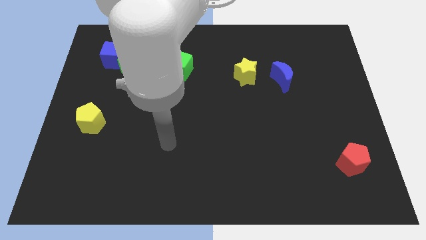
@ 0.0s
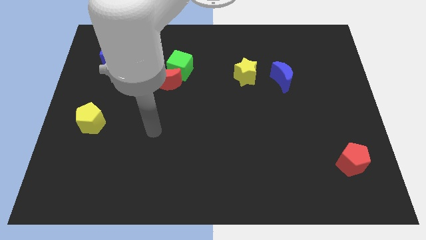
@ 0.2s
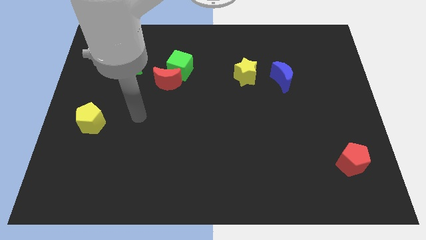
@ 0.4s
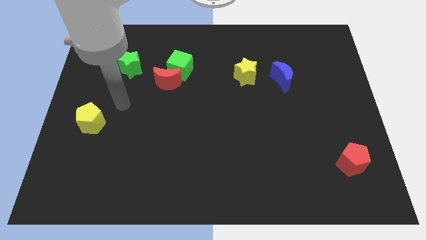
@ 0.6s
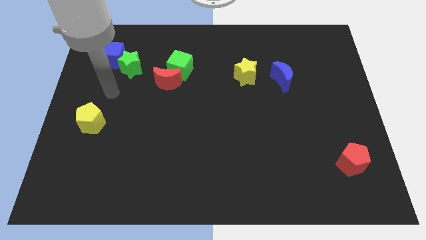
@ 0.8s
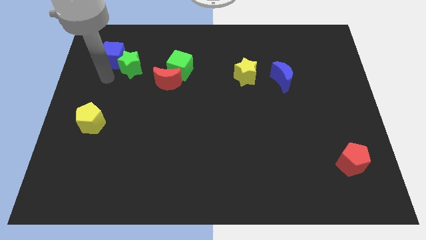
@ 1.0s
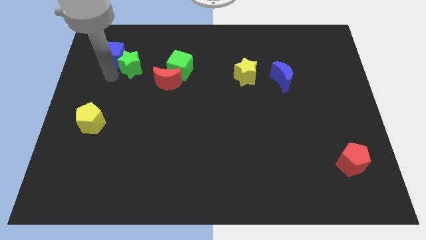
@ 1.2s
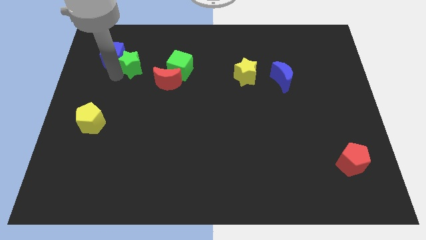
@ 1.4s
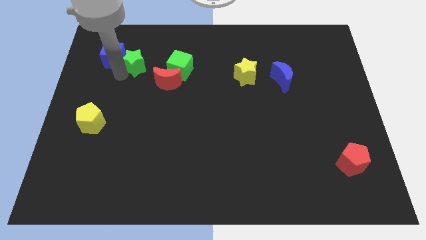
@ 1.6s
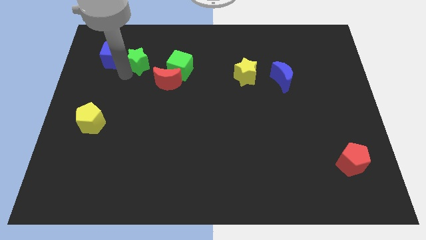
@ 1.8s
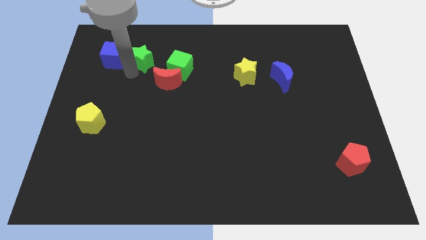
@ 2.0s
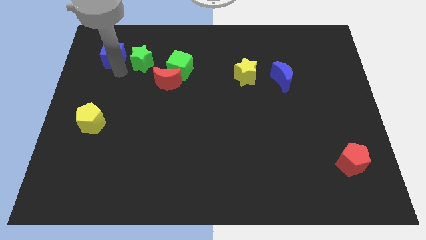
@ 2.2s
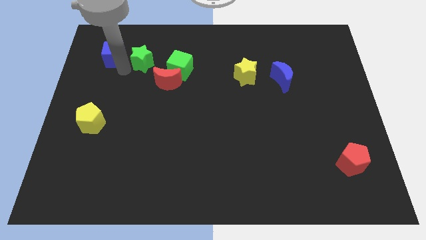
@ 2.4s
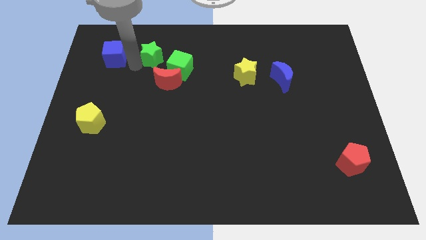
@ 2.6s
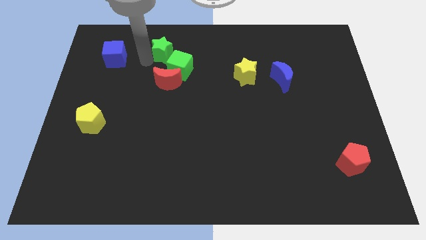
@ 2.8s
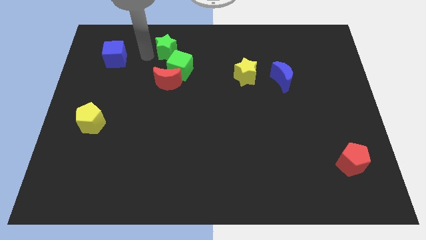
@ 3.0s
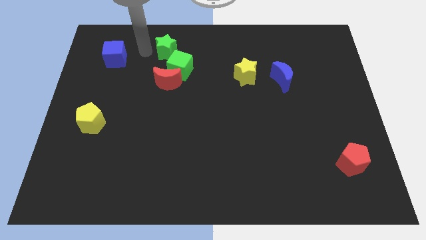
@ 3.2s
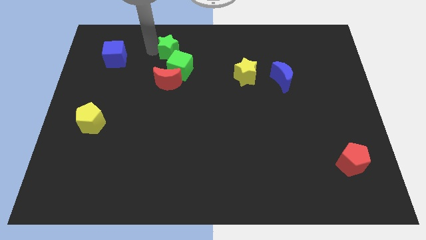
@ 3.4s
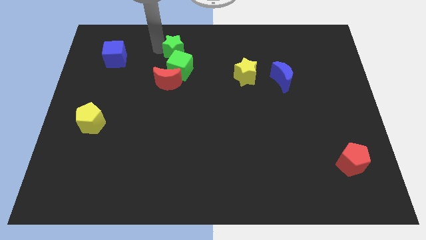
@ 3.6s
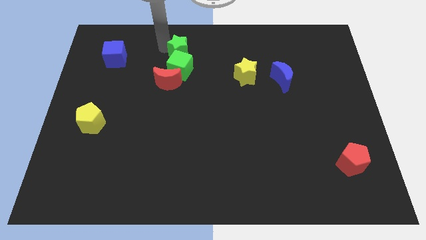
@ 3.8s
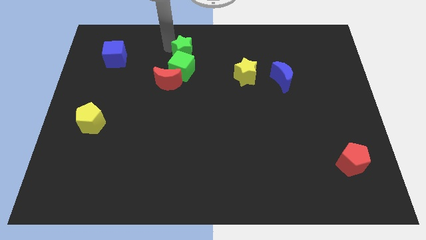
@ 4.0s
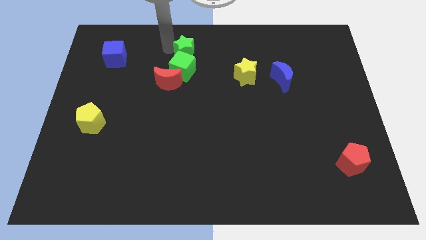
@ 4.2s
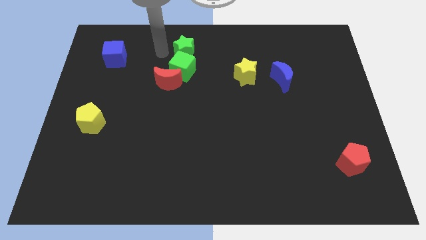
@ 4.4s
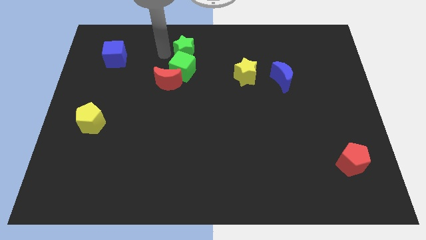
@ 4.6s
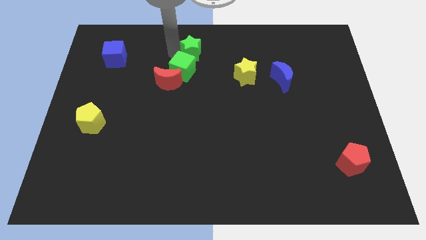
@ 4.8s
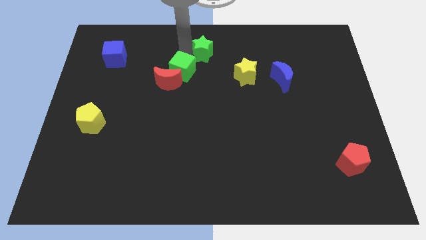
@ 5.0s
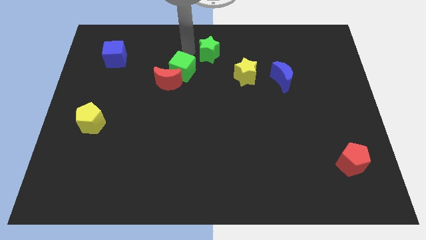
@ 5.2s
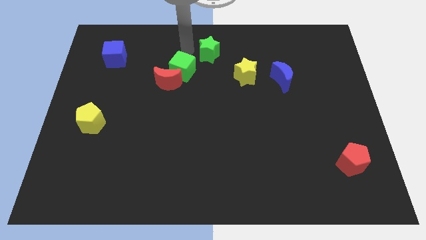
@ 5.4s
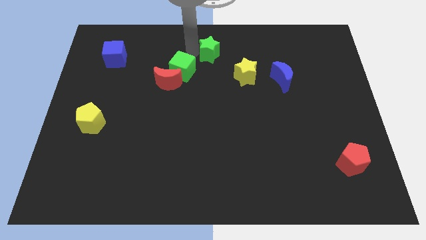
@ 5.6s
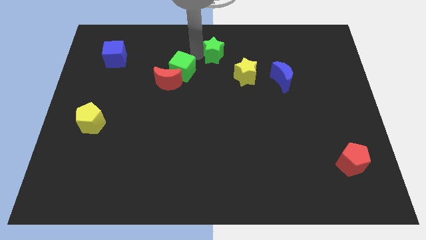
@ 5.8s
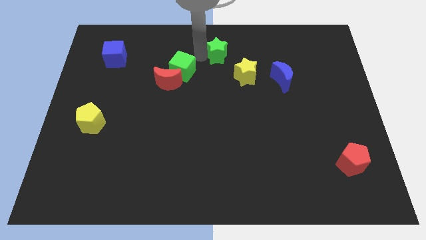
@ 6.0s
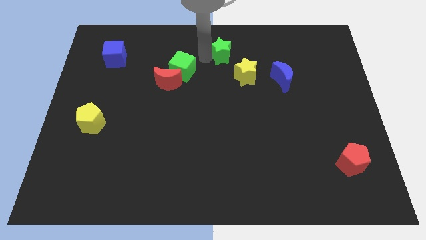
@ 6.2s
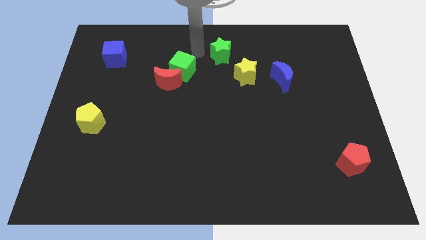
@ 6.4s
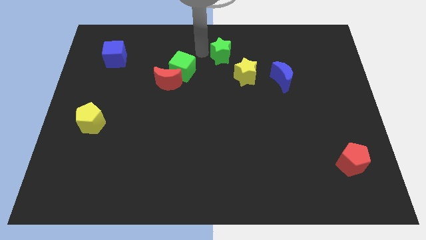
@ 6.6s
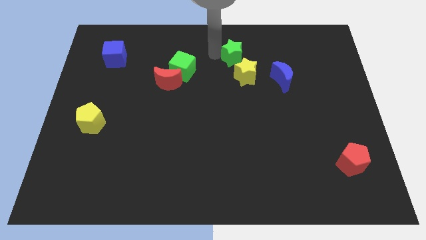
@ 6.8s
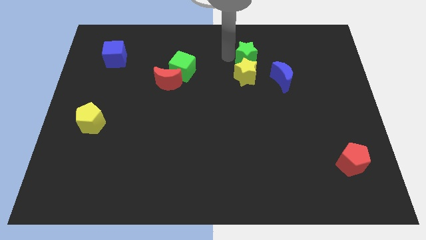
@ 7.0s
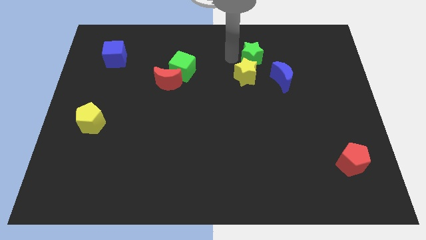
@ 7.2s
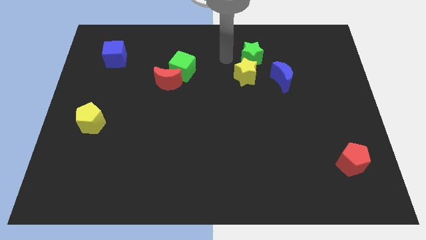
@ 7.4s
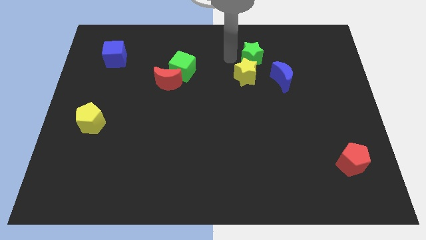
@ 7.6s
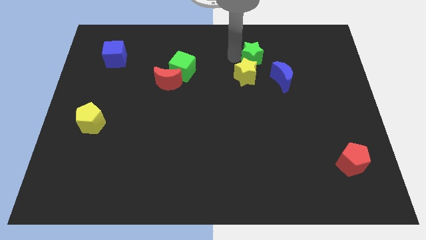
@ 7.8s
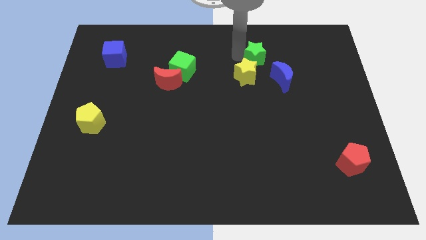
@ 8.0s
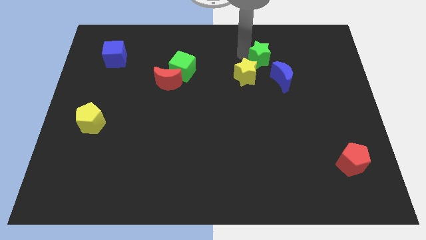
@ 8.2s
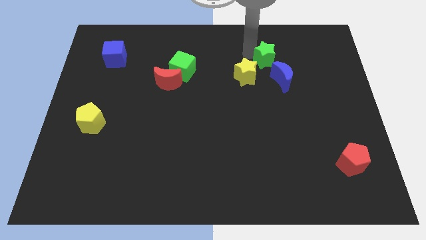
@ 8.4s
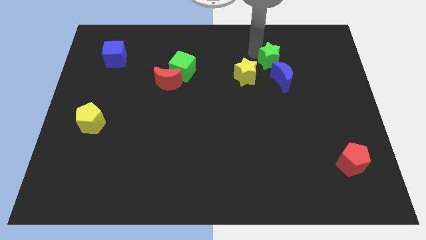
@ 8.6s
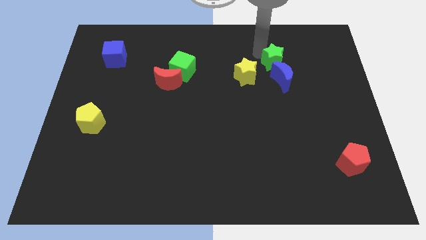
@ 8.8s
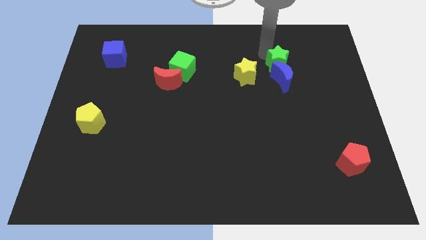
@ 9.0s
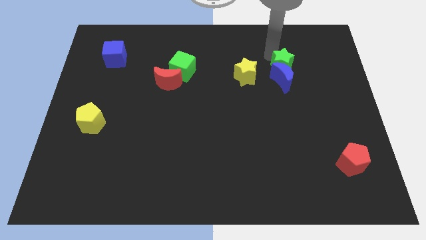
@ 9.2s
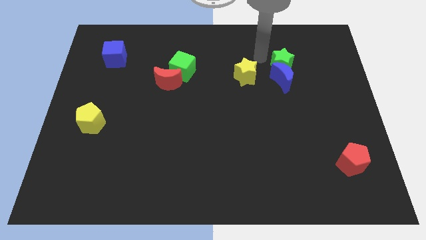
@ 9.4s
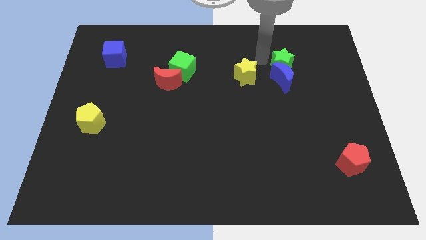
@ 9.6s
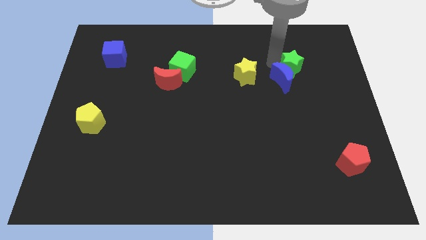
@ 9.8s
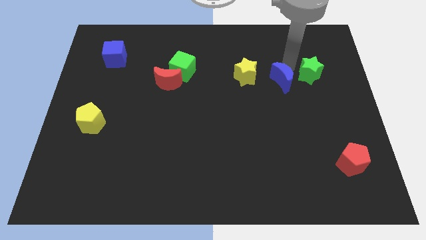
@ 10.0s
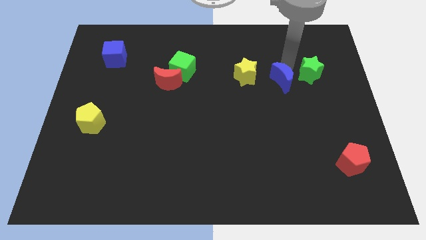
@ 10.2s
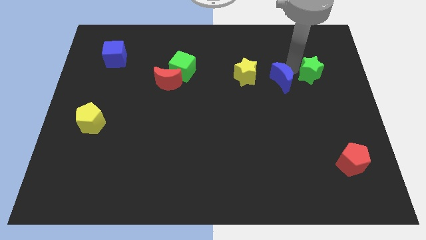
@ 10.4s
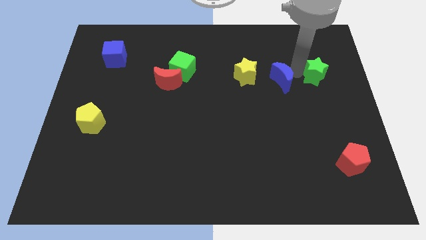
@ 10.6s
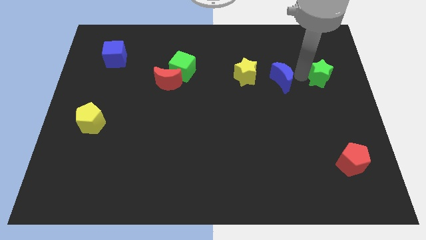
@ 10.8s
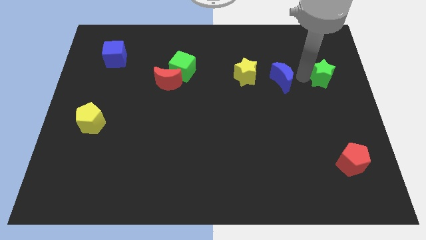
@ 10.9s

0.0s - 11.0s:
put the green star to the right side

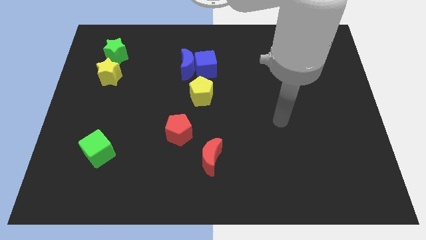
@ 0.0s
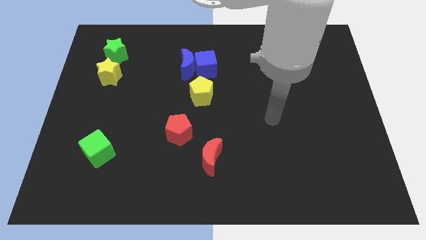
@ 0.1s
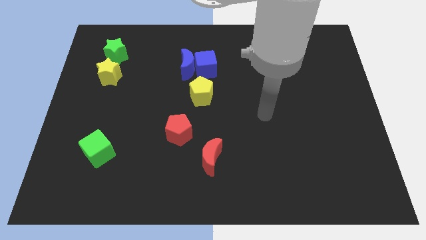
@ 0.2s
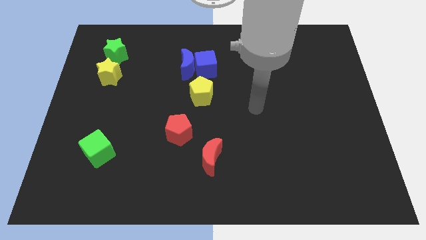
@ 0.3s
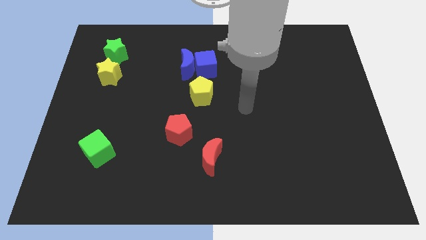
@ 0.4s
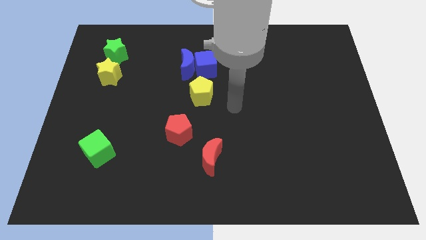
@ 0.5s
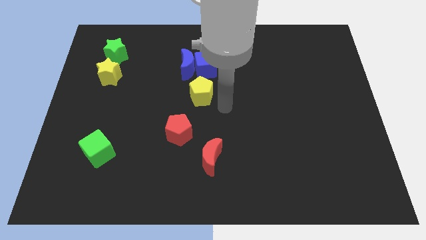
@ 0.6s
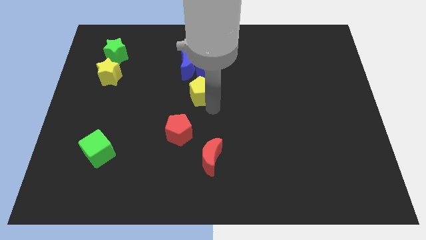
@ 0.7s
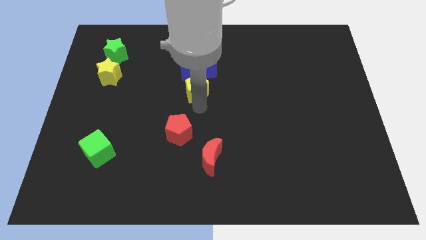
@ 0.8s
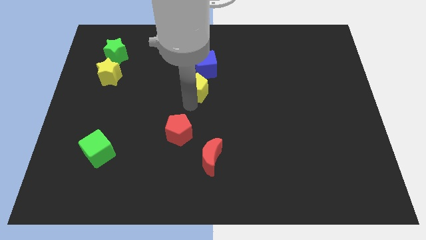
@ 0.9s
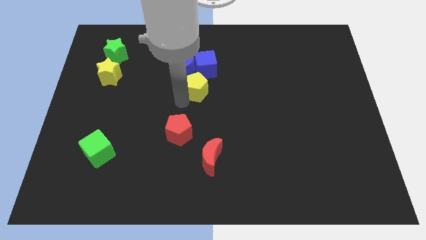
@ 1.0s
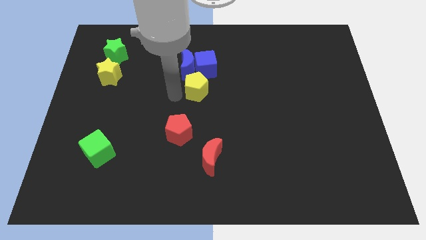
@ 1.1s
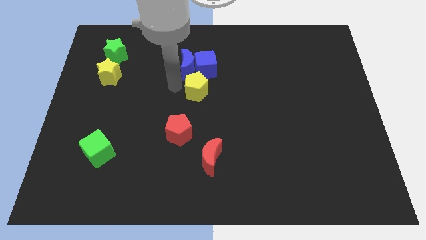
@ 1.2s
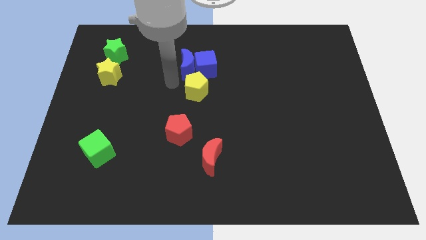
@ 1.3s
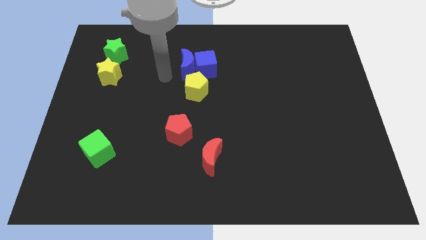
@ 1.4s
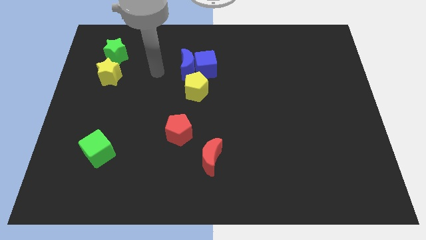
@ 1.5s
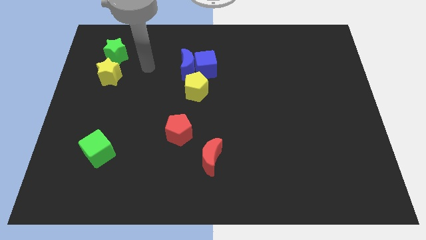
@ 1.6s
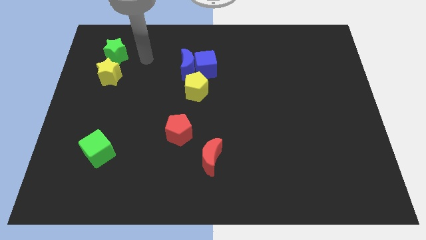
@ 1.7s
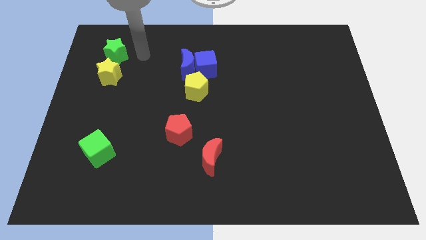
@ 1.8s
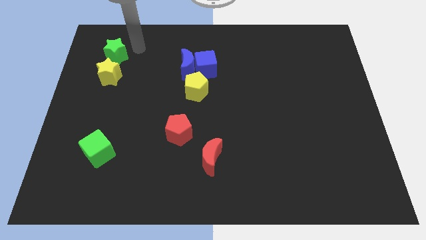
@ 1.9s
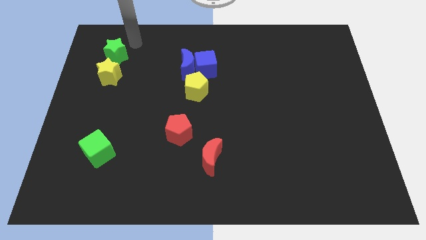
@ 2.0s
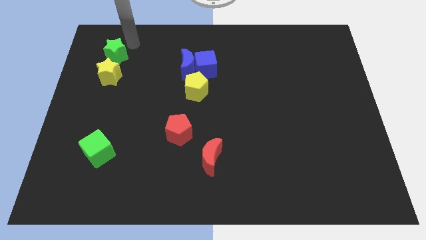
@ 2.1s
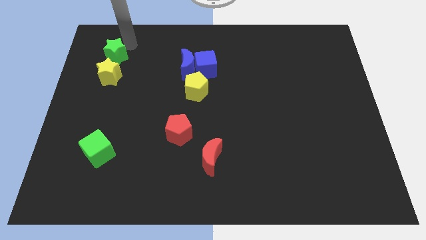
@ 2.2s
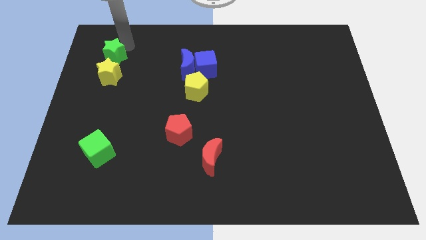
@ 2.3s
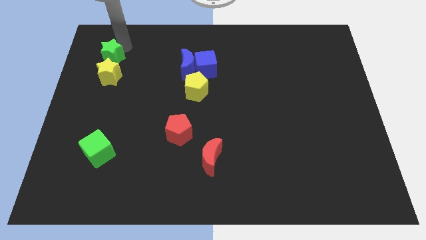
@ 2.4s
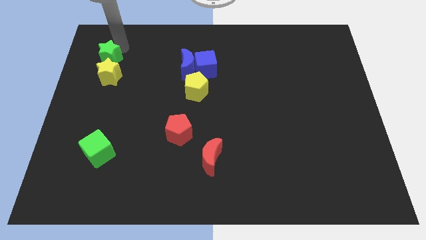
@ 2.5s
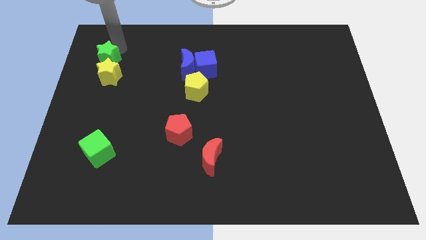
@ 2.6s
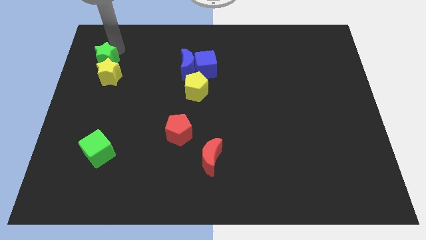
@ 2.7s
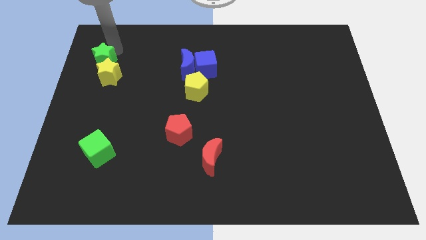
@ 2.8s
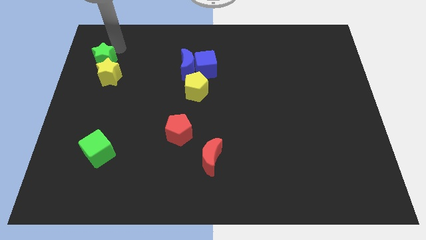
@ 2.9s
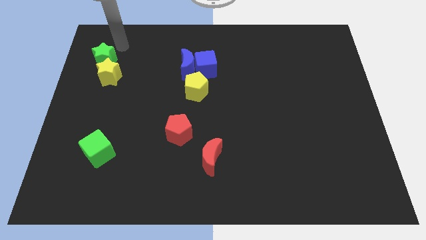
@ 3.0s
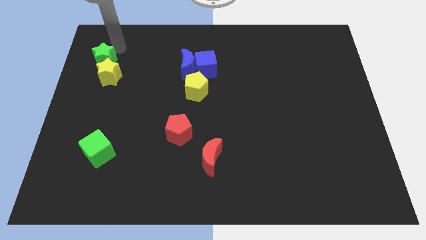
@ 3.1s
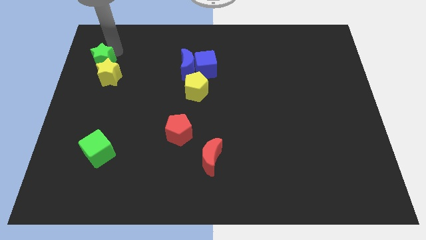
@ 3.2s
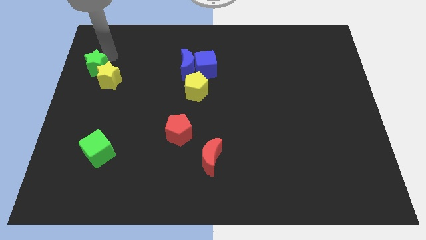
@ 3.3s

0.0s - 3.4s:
move the green star to the center left
